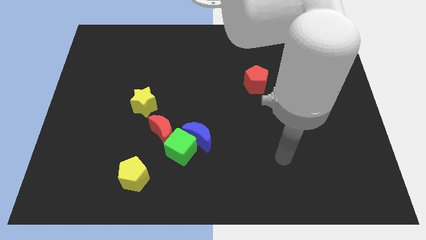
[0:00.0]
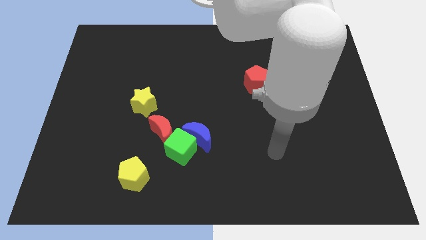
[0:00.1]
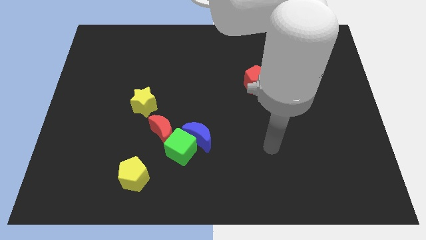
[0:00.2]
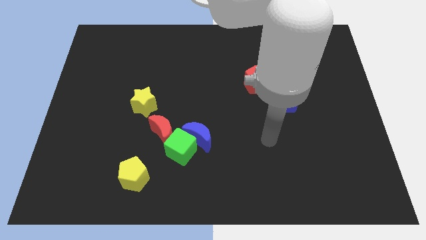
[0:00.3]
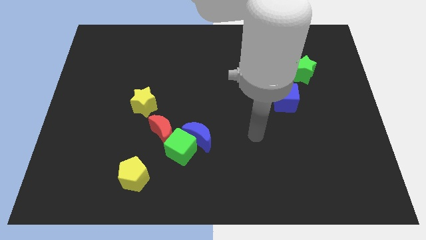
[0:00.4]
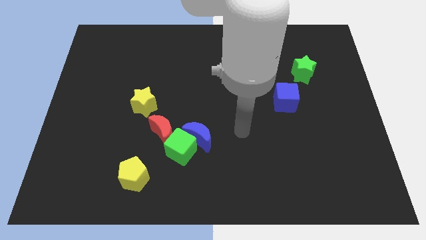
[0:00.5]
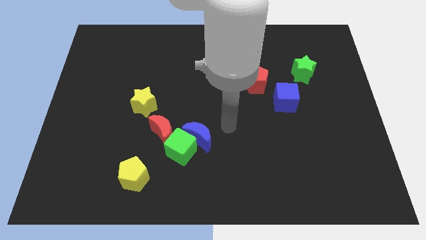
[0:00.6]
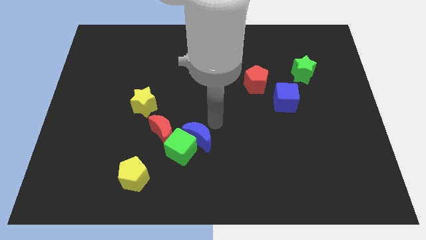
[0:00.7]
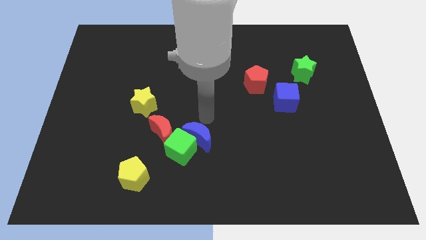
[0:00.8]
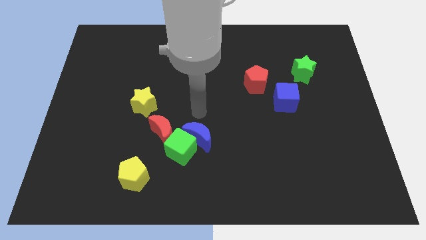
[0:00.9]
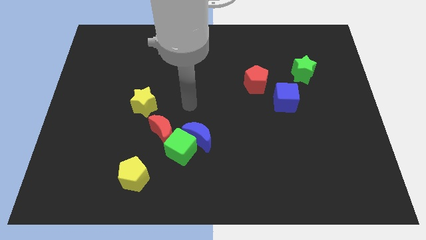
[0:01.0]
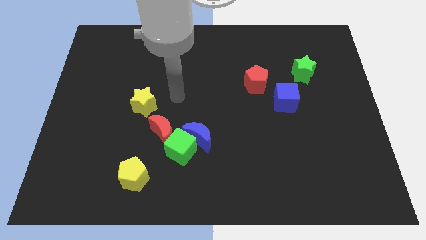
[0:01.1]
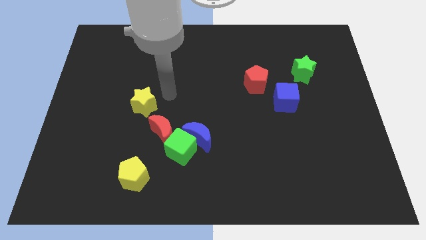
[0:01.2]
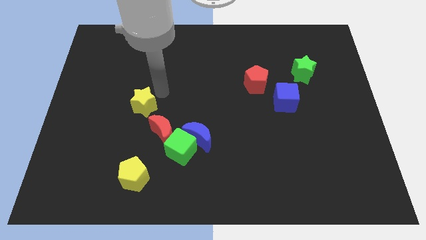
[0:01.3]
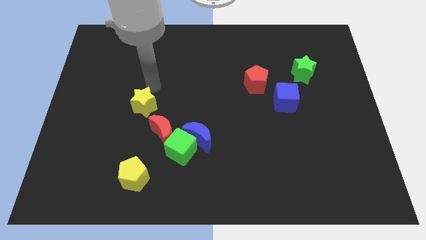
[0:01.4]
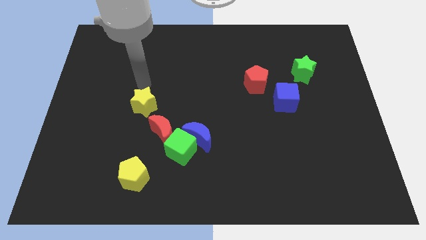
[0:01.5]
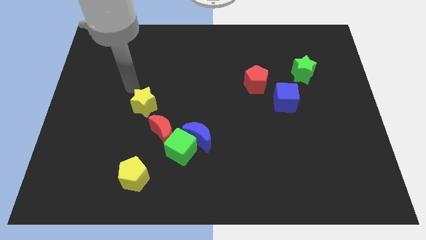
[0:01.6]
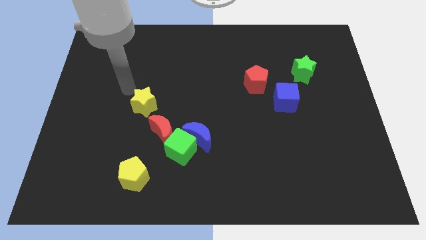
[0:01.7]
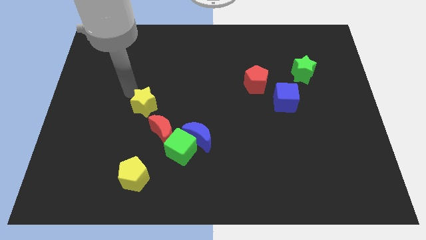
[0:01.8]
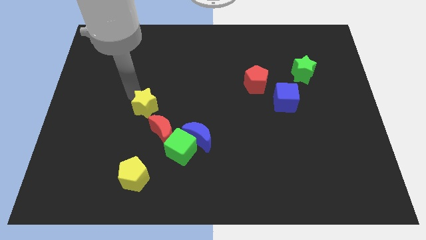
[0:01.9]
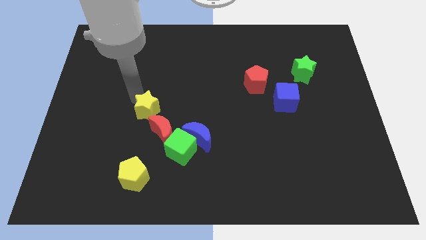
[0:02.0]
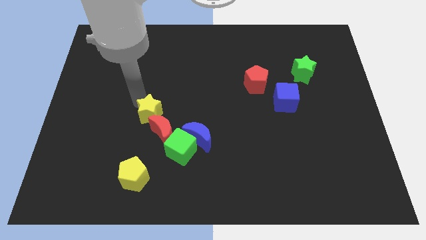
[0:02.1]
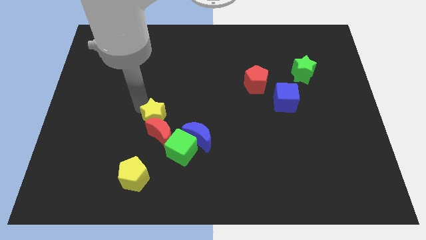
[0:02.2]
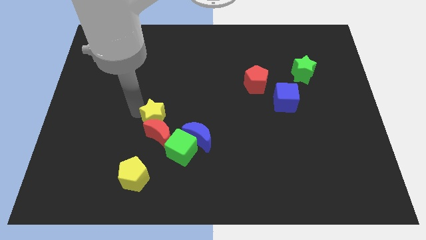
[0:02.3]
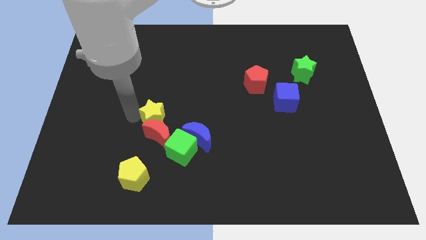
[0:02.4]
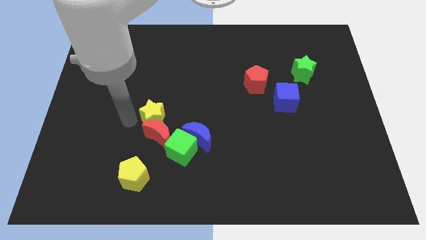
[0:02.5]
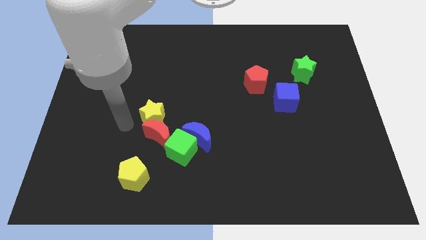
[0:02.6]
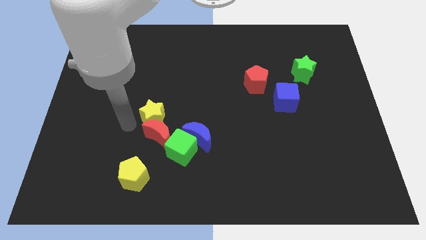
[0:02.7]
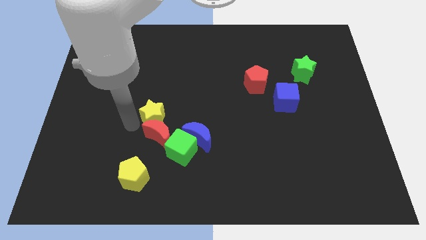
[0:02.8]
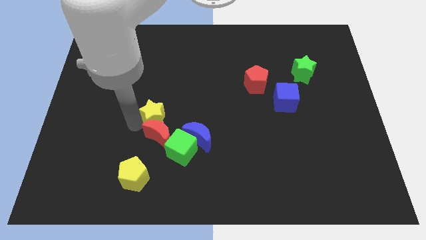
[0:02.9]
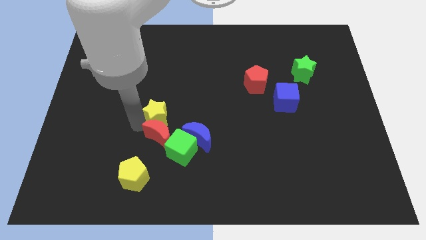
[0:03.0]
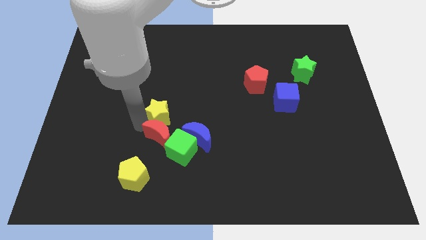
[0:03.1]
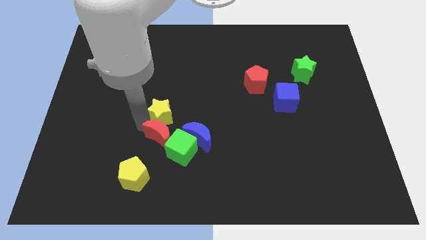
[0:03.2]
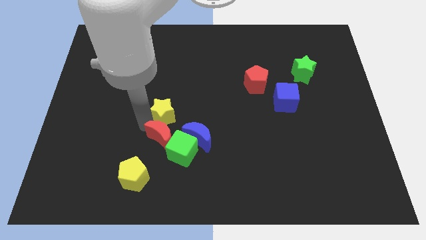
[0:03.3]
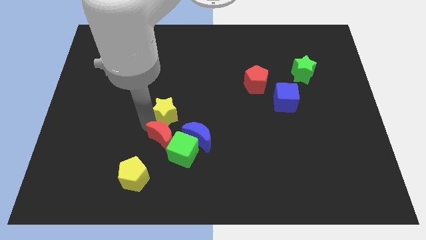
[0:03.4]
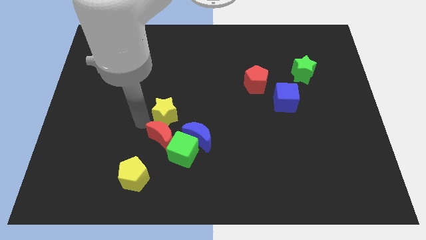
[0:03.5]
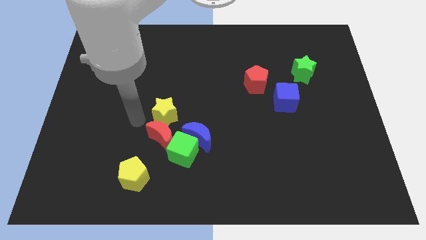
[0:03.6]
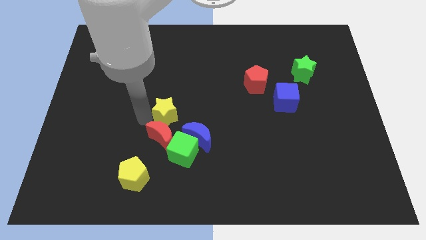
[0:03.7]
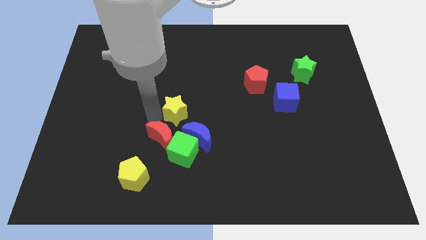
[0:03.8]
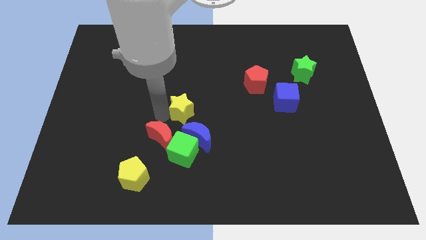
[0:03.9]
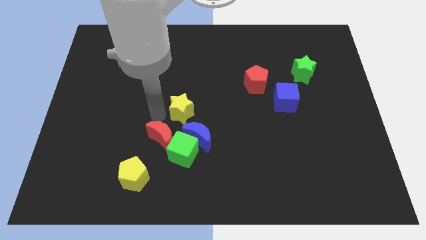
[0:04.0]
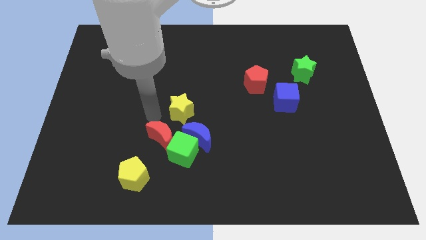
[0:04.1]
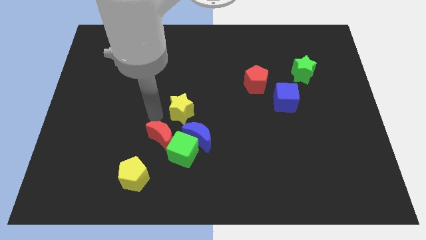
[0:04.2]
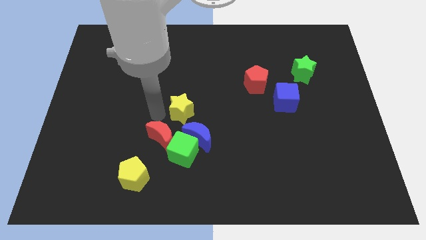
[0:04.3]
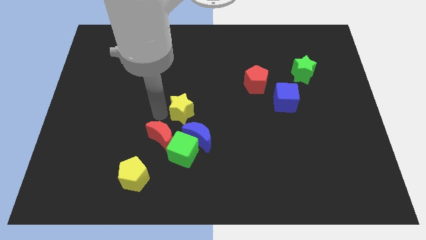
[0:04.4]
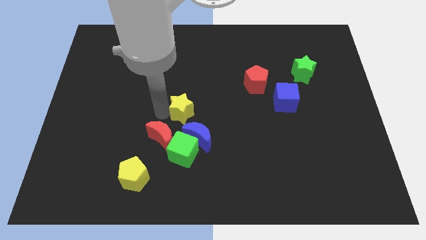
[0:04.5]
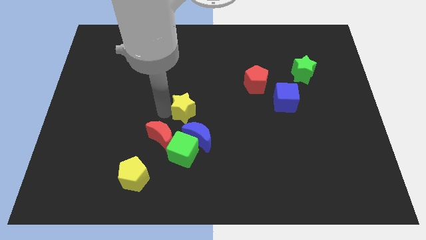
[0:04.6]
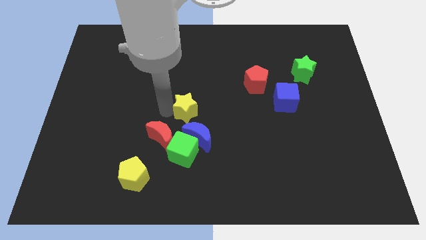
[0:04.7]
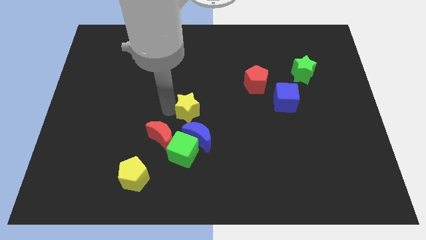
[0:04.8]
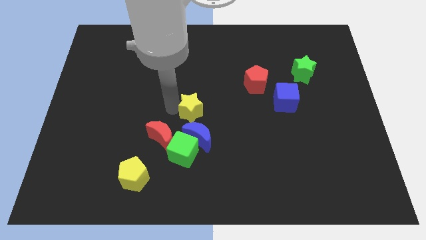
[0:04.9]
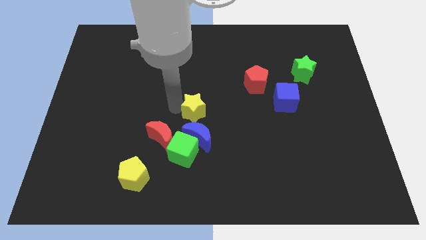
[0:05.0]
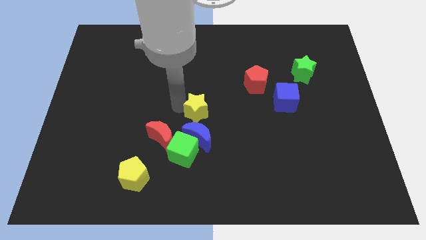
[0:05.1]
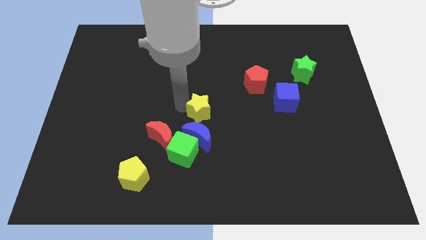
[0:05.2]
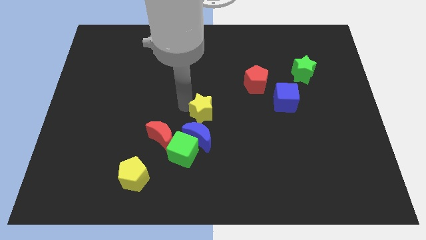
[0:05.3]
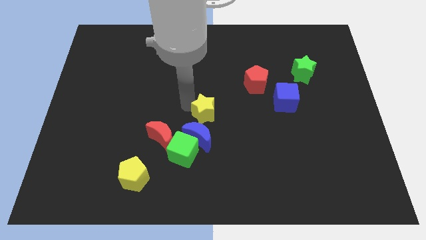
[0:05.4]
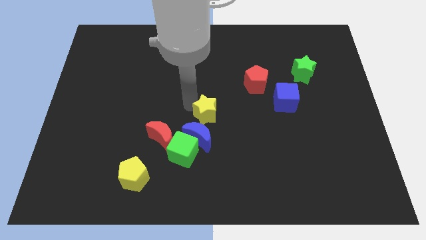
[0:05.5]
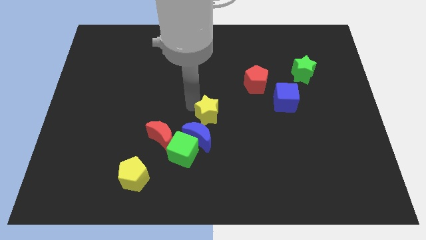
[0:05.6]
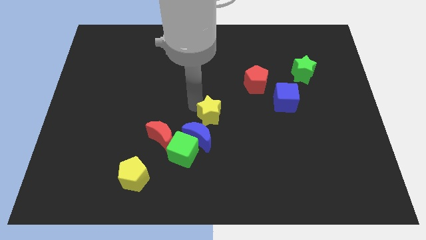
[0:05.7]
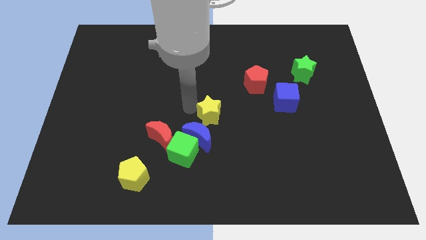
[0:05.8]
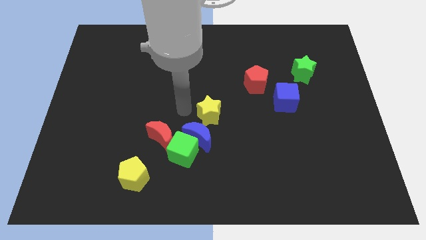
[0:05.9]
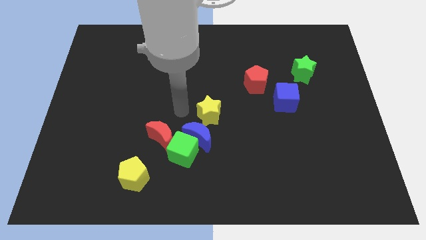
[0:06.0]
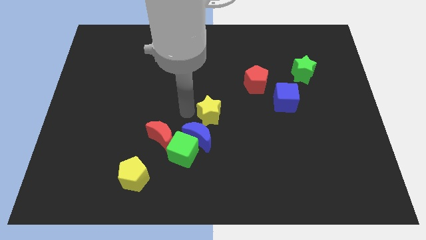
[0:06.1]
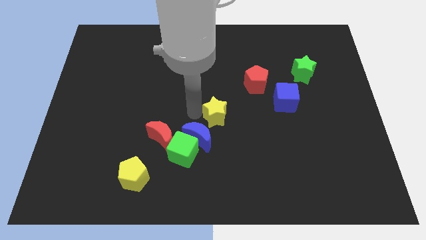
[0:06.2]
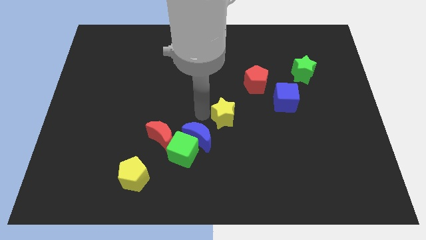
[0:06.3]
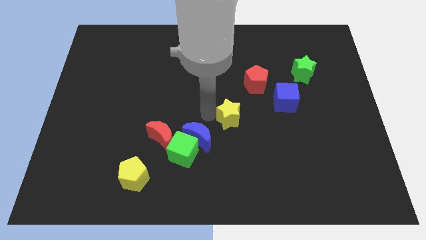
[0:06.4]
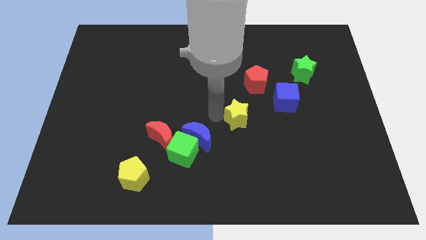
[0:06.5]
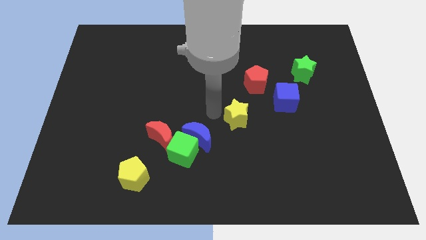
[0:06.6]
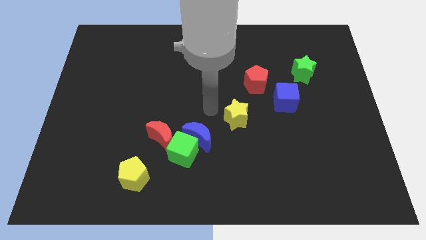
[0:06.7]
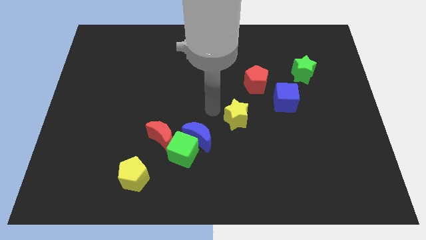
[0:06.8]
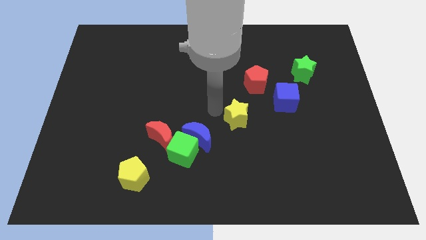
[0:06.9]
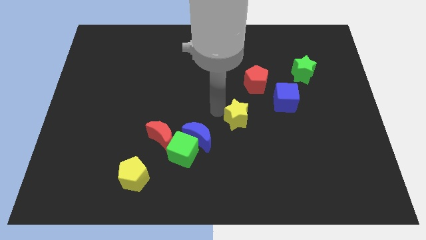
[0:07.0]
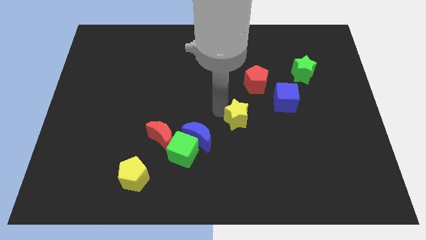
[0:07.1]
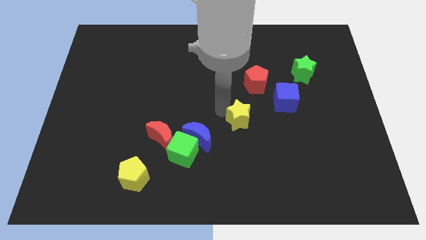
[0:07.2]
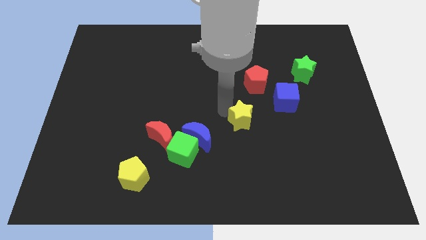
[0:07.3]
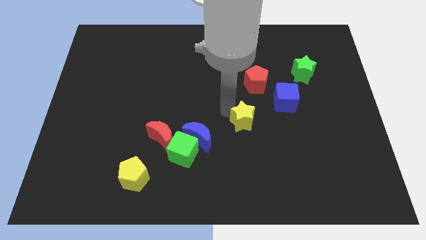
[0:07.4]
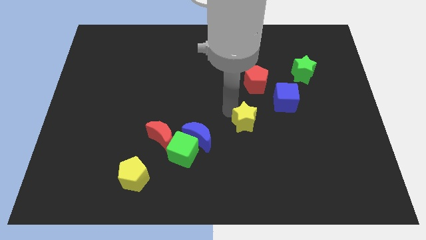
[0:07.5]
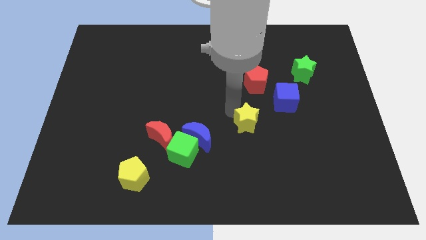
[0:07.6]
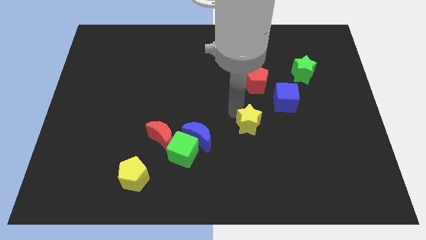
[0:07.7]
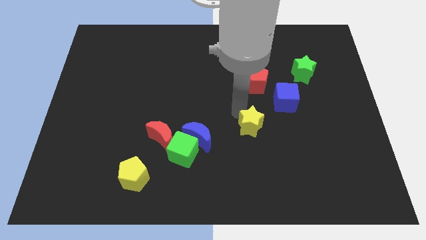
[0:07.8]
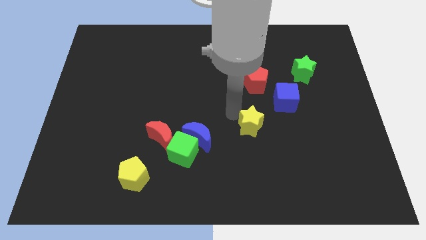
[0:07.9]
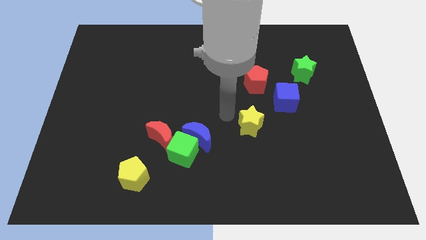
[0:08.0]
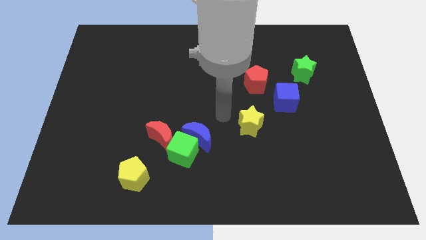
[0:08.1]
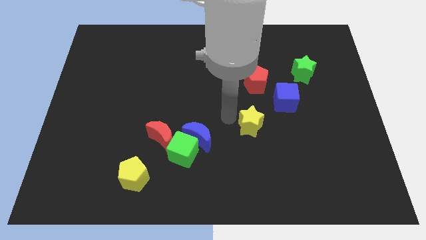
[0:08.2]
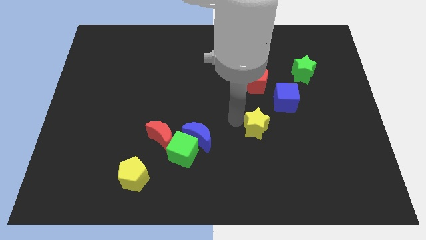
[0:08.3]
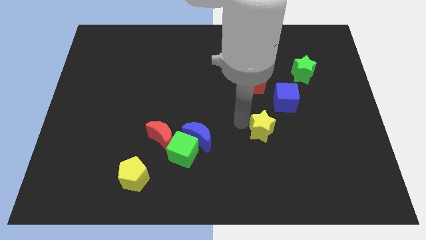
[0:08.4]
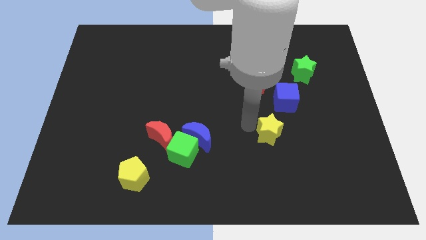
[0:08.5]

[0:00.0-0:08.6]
push the yellow star below the blue cube
